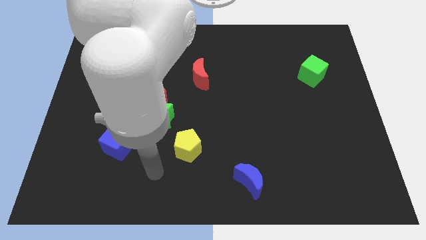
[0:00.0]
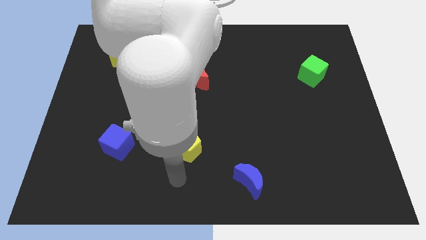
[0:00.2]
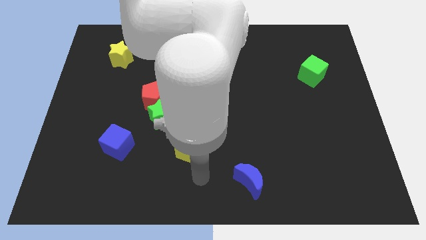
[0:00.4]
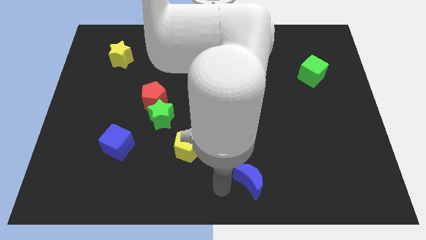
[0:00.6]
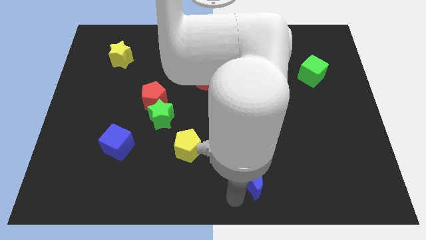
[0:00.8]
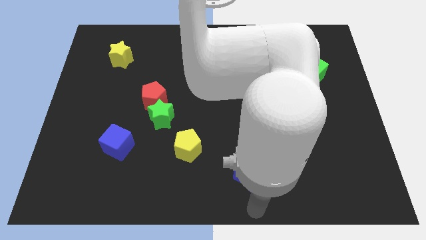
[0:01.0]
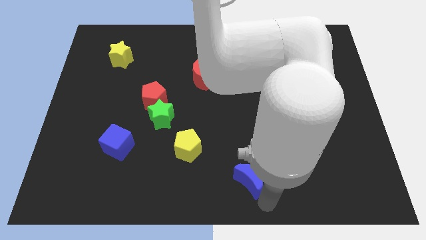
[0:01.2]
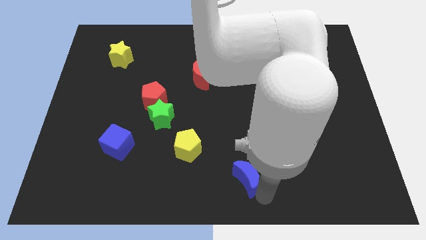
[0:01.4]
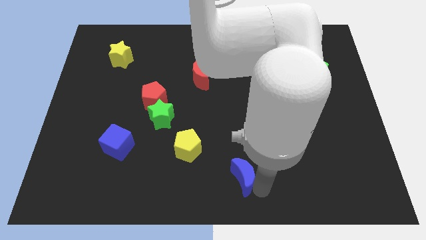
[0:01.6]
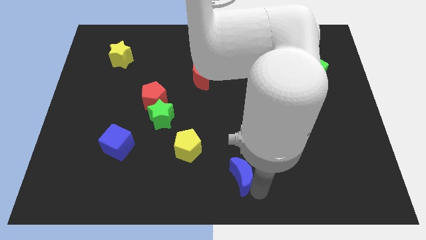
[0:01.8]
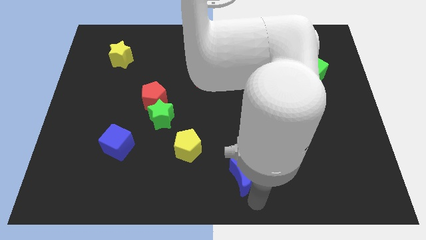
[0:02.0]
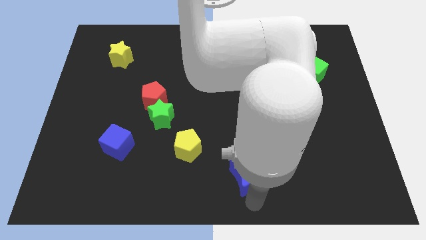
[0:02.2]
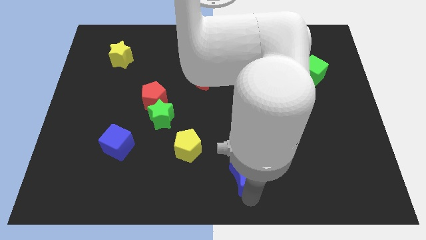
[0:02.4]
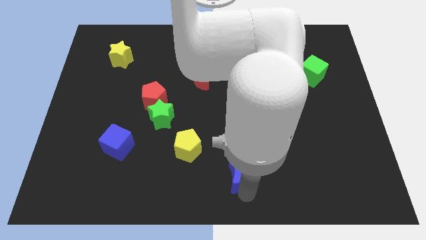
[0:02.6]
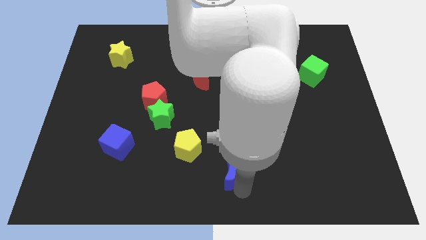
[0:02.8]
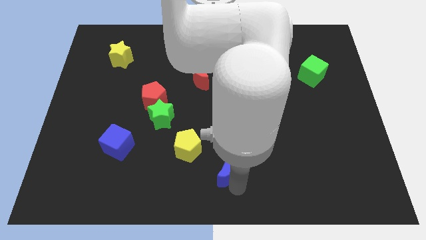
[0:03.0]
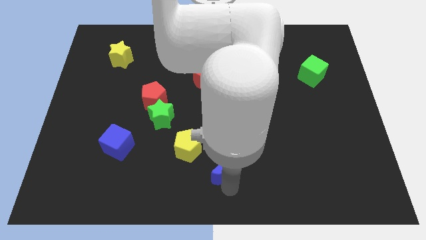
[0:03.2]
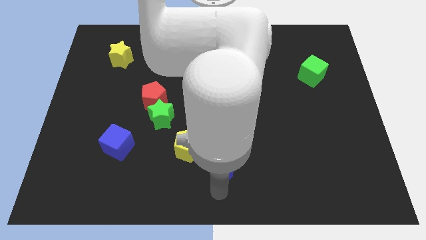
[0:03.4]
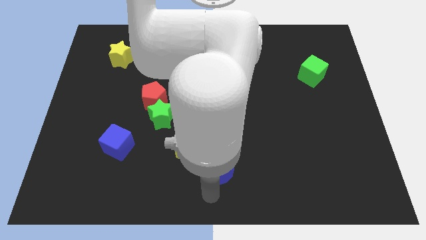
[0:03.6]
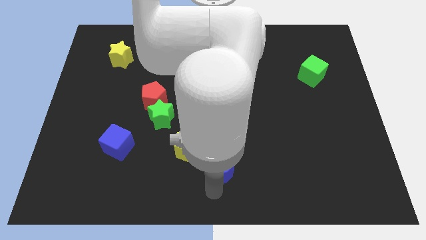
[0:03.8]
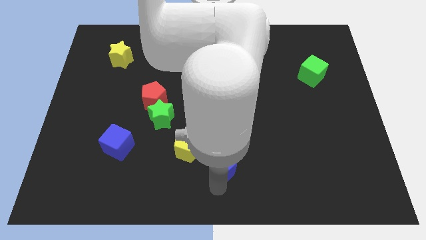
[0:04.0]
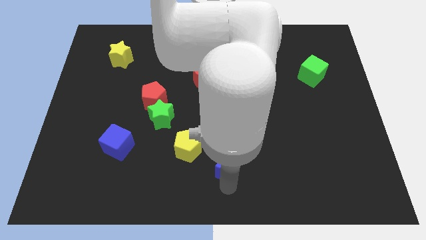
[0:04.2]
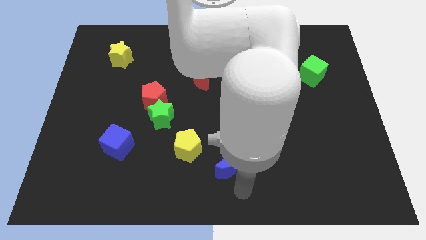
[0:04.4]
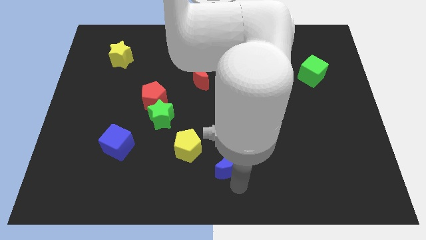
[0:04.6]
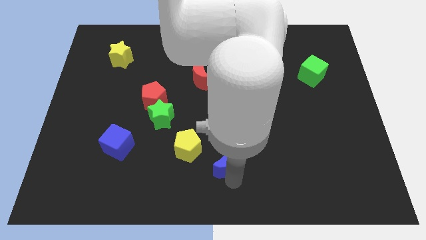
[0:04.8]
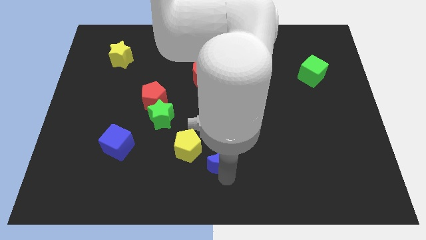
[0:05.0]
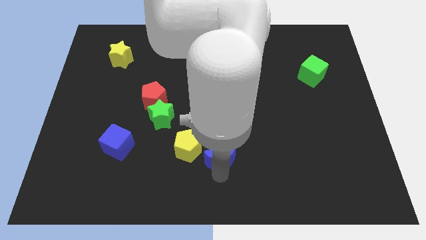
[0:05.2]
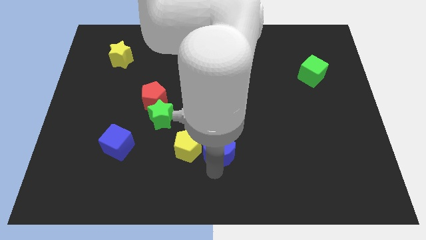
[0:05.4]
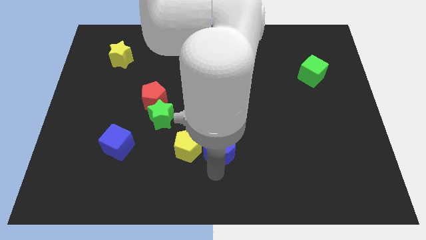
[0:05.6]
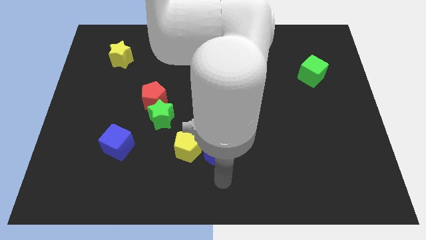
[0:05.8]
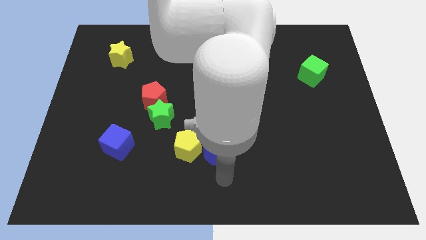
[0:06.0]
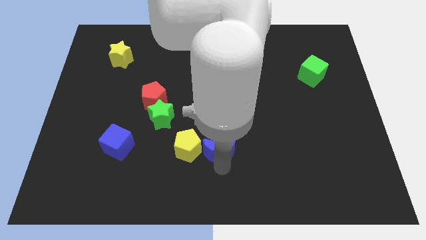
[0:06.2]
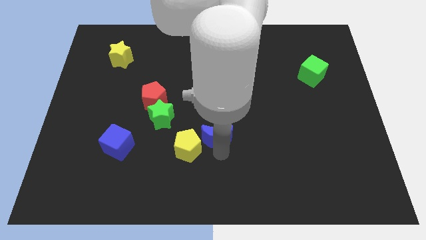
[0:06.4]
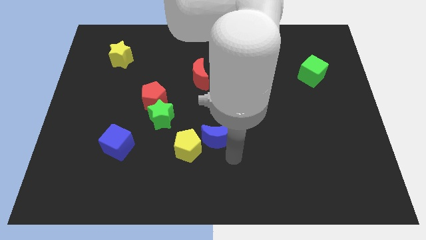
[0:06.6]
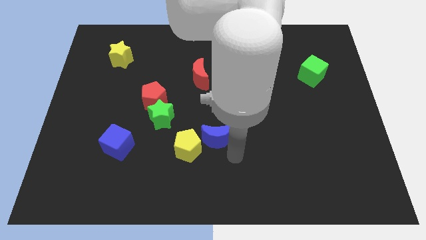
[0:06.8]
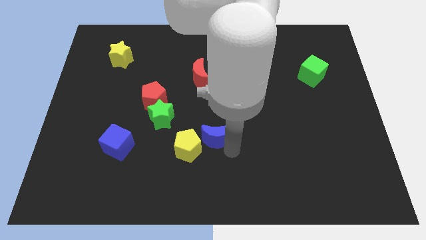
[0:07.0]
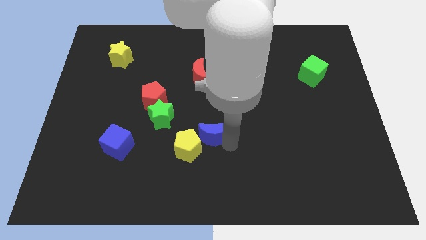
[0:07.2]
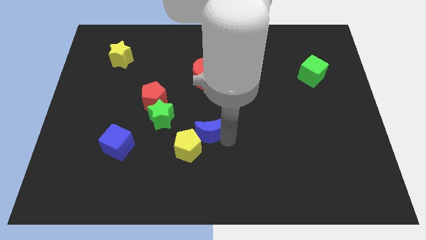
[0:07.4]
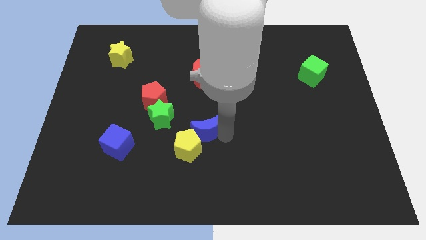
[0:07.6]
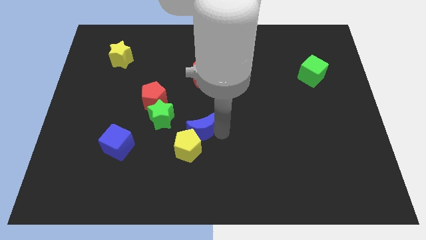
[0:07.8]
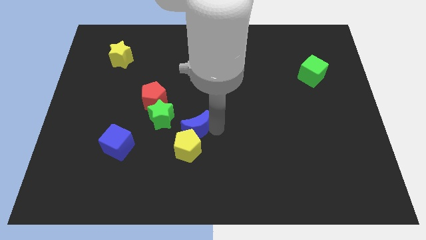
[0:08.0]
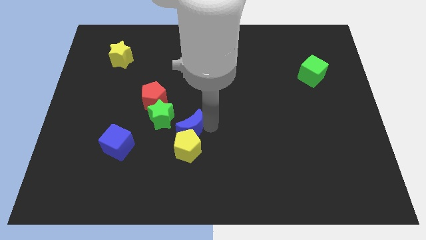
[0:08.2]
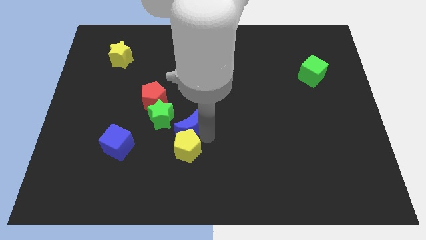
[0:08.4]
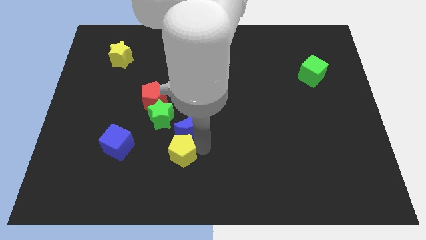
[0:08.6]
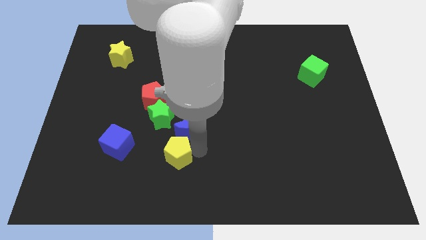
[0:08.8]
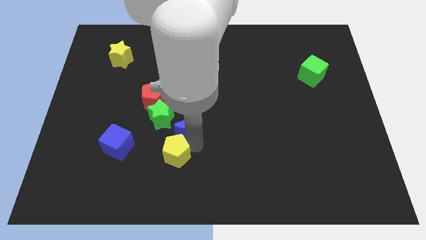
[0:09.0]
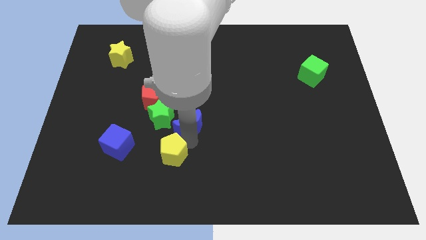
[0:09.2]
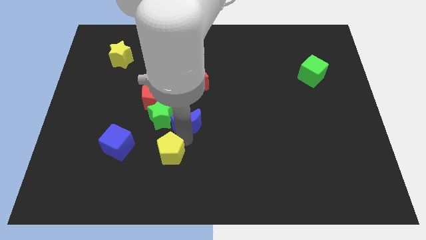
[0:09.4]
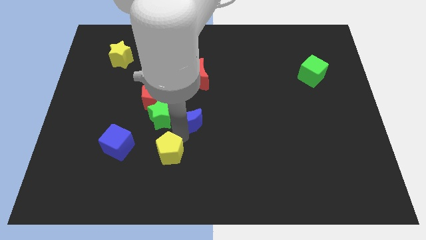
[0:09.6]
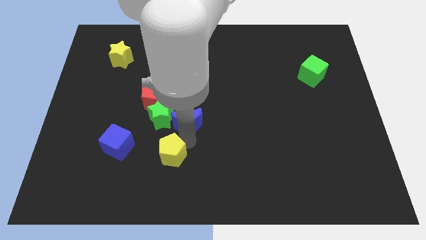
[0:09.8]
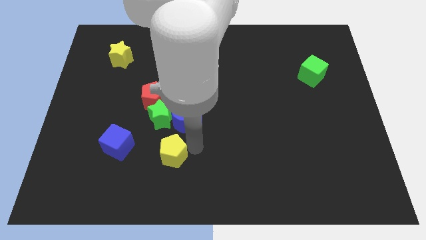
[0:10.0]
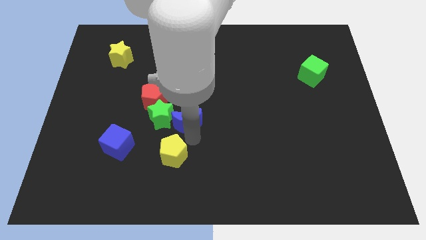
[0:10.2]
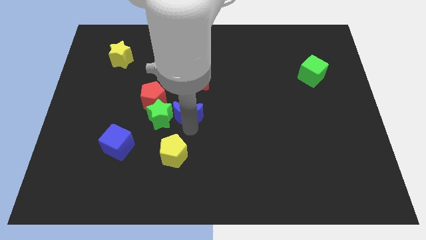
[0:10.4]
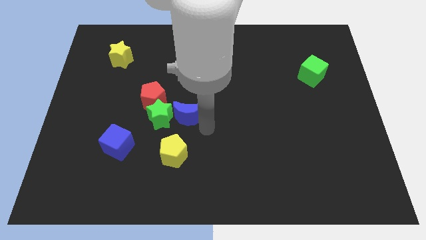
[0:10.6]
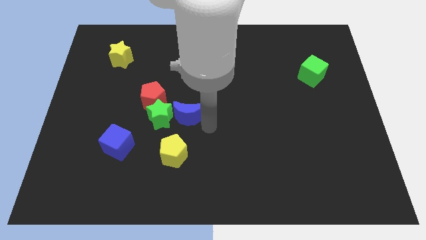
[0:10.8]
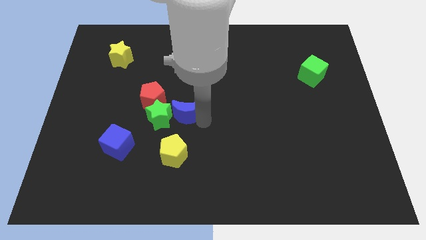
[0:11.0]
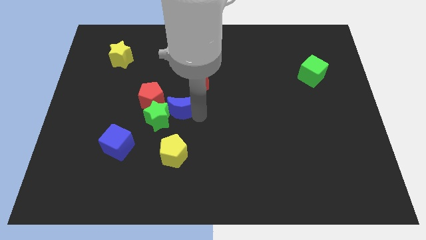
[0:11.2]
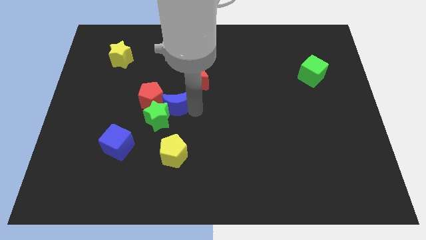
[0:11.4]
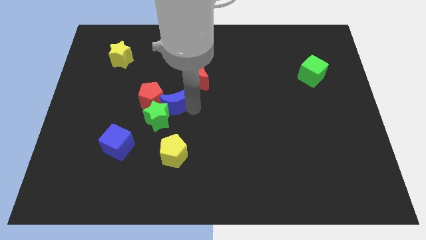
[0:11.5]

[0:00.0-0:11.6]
put the blue moon next to the red pentagon
